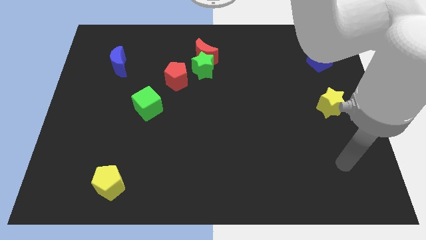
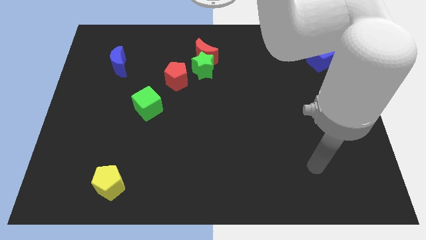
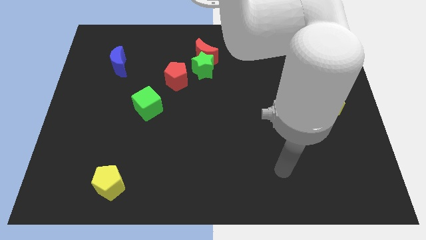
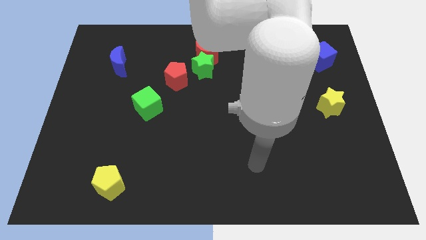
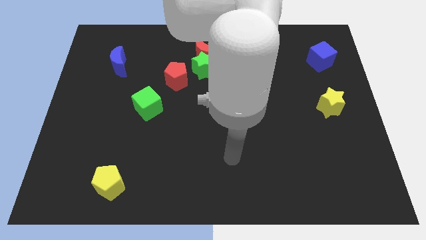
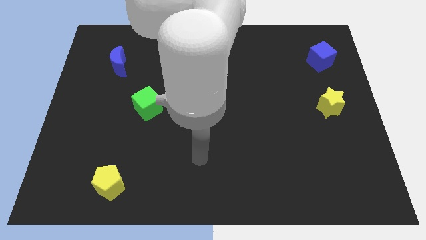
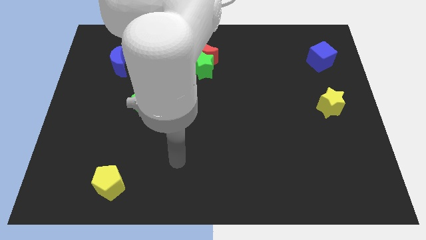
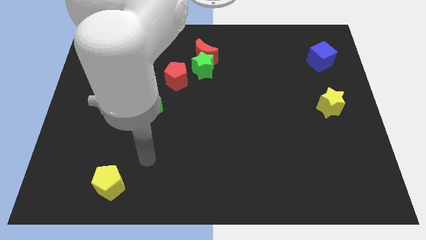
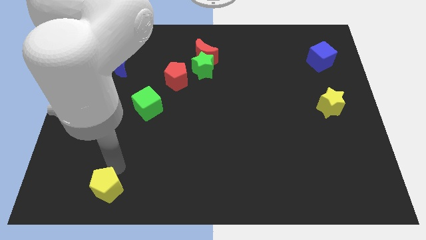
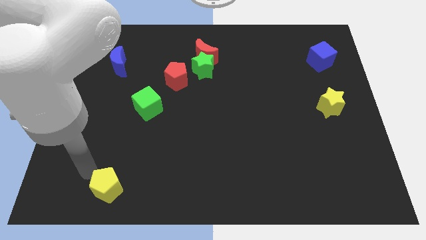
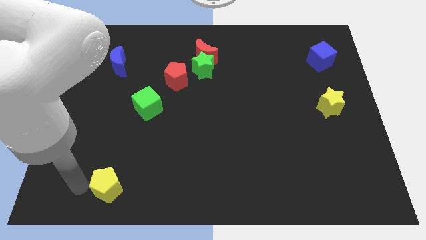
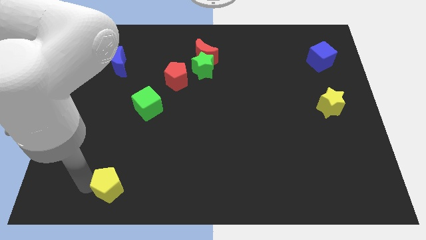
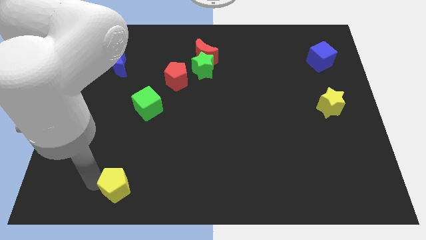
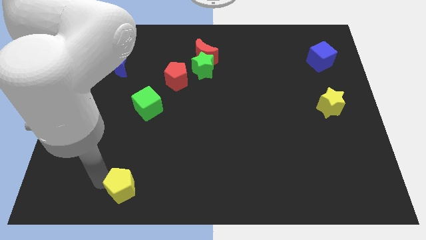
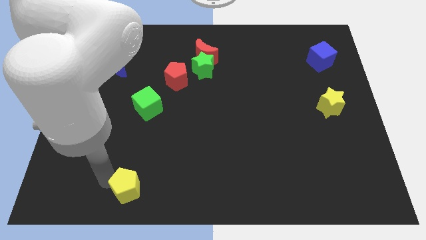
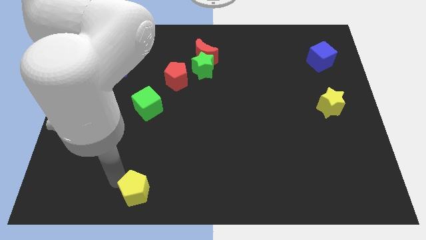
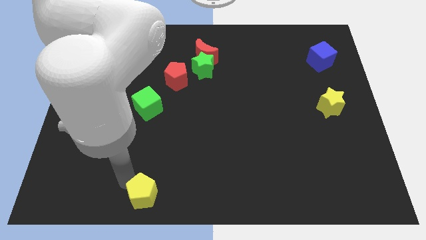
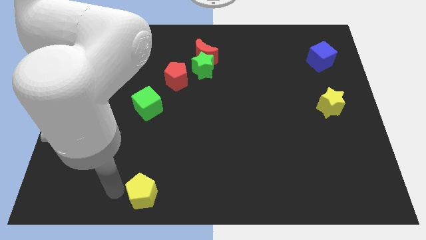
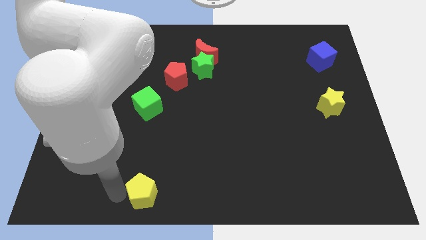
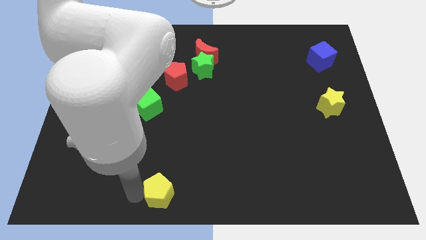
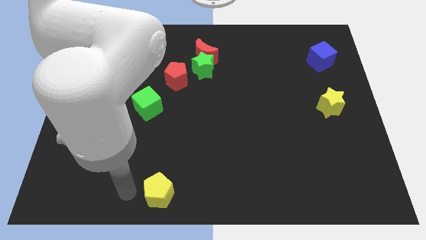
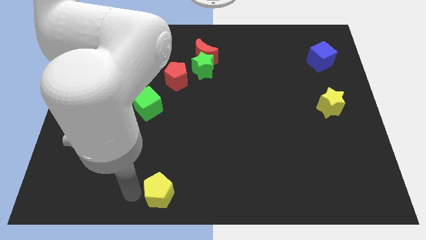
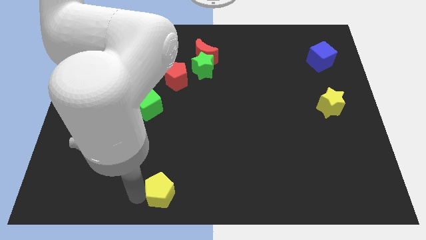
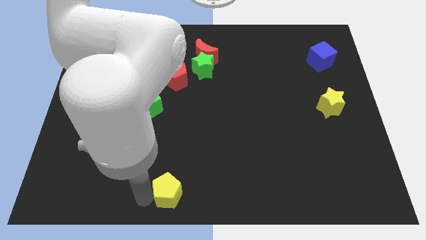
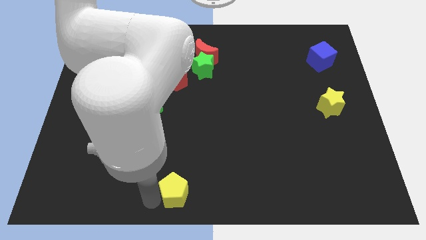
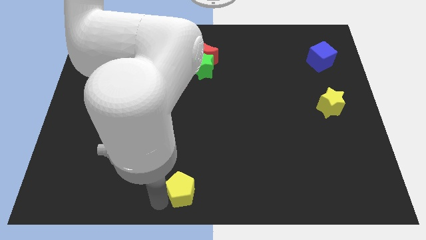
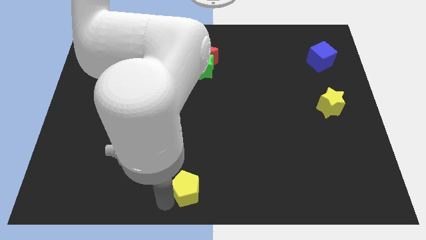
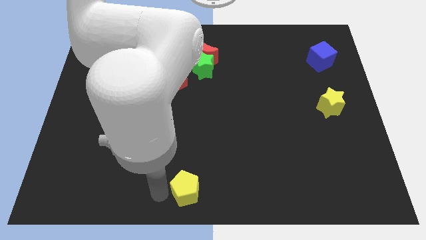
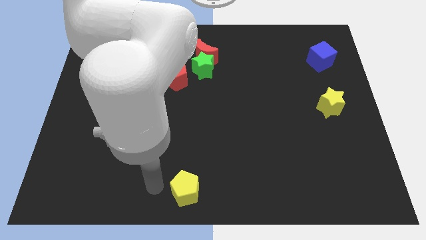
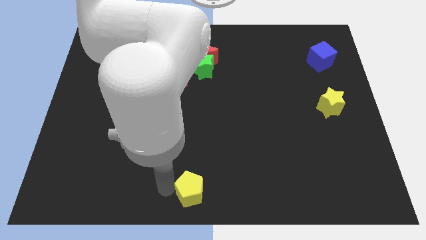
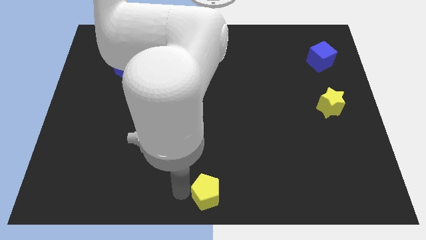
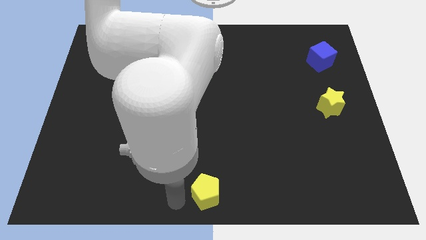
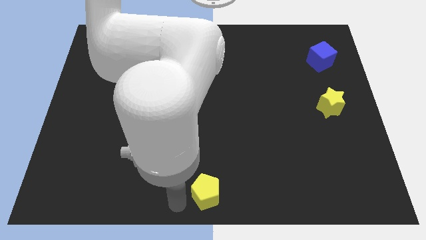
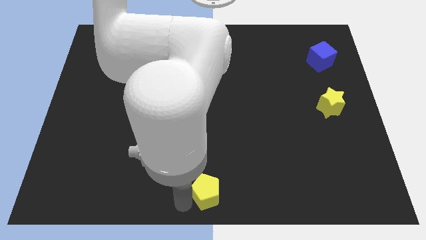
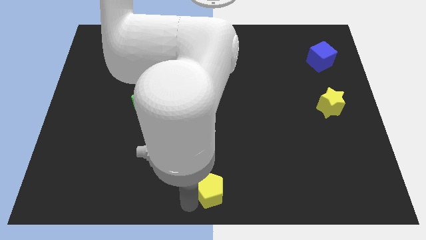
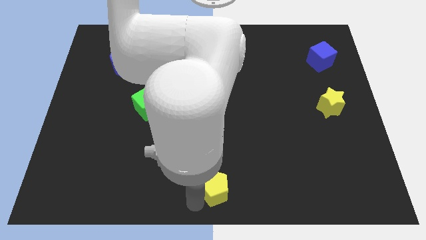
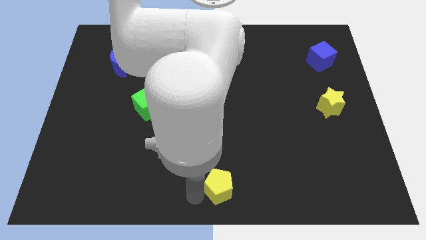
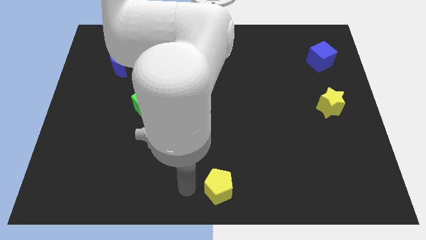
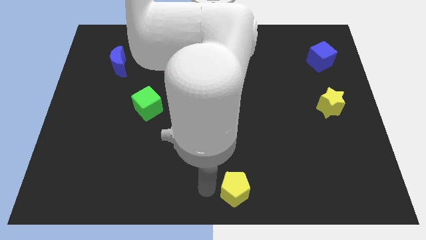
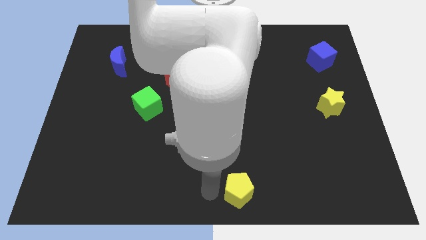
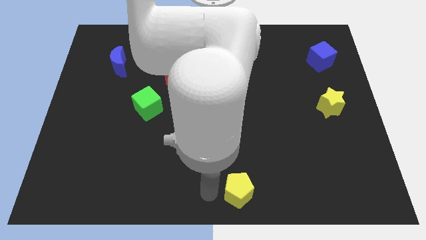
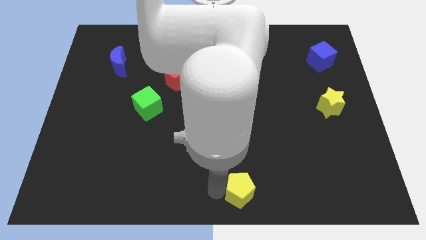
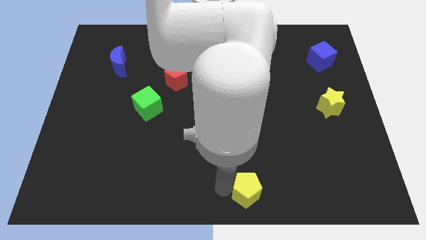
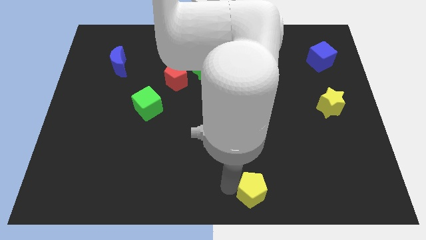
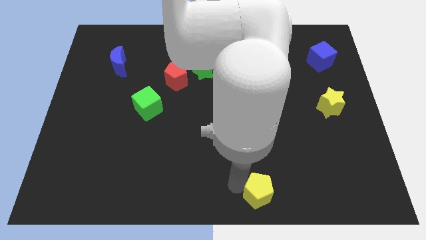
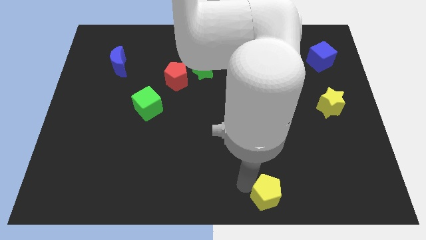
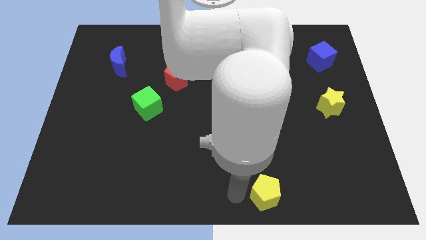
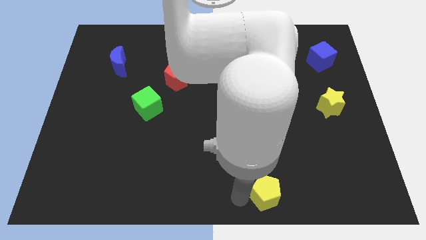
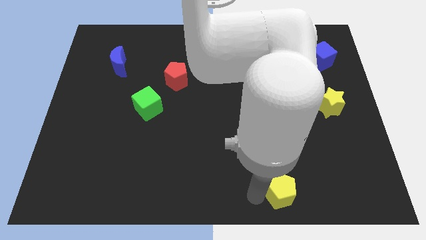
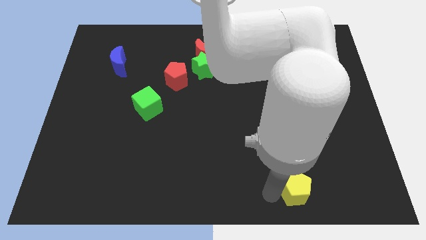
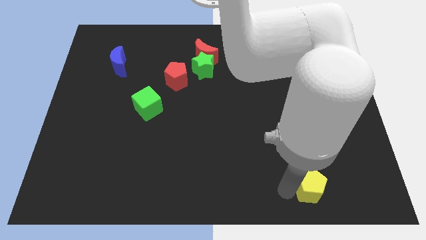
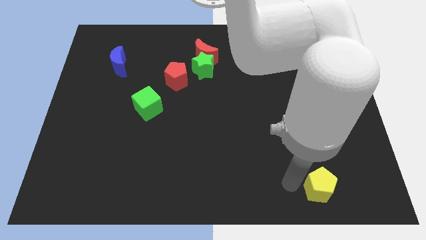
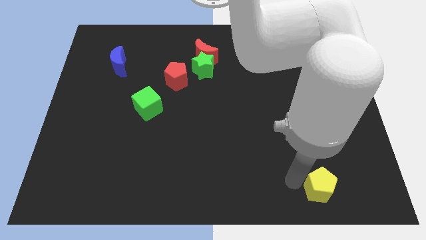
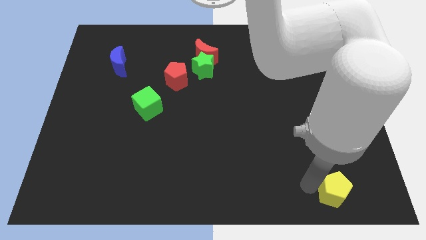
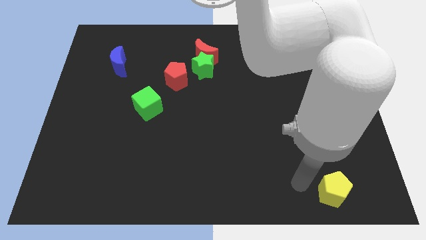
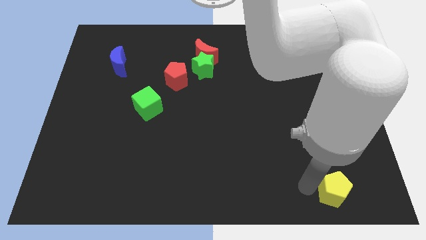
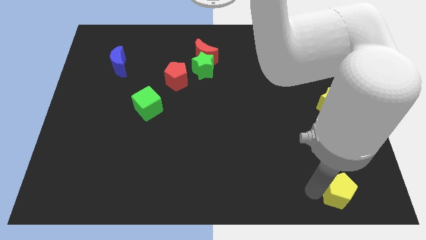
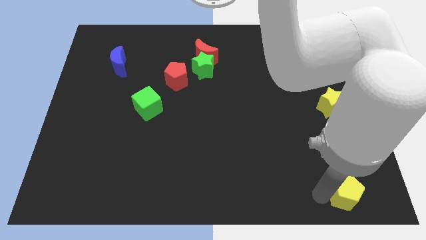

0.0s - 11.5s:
move the yellow pentagon to the bottom right

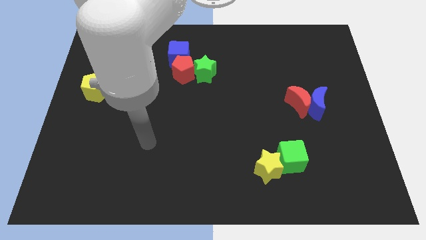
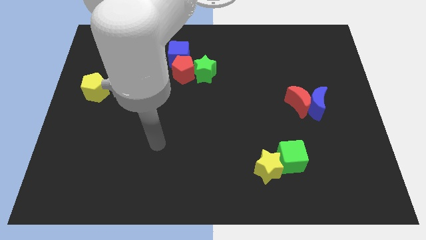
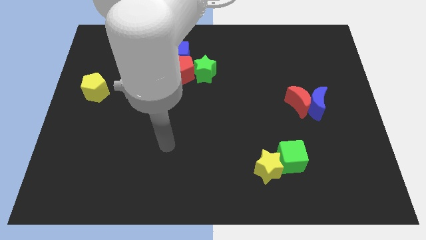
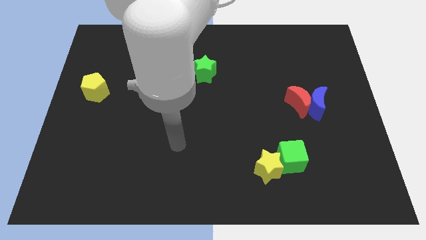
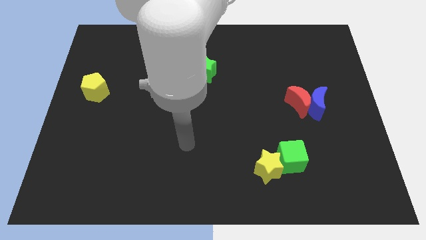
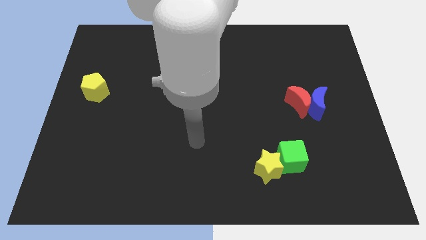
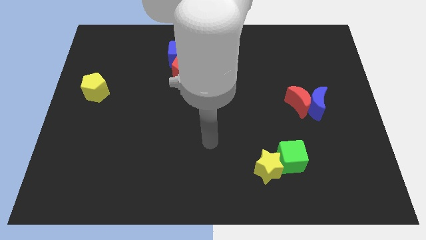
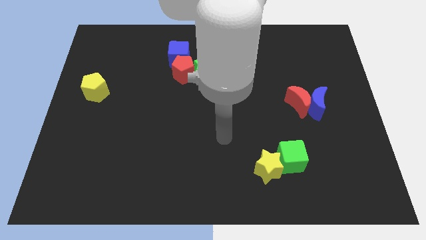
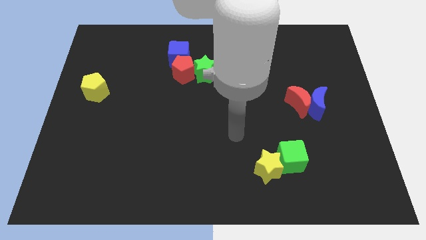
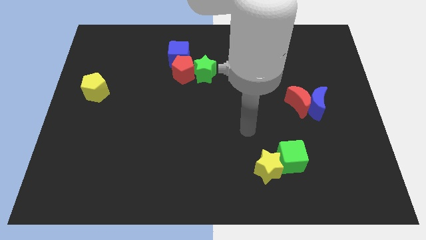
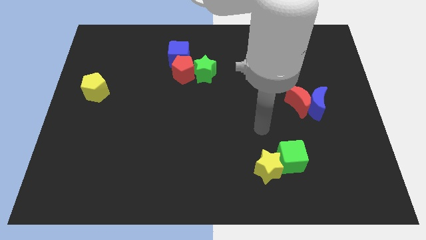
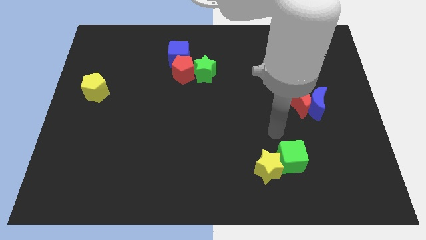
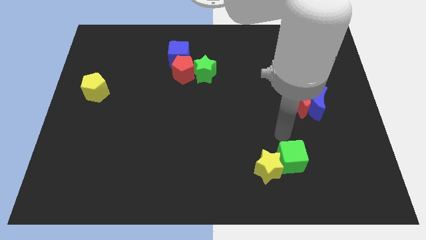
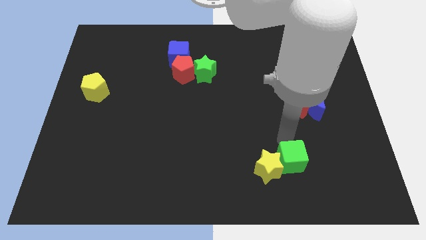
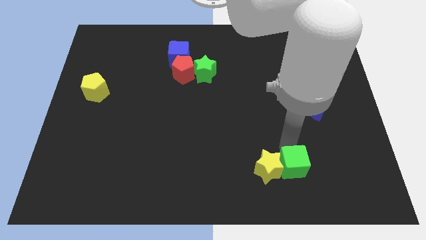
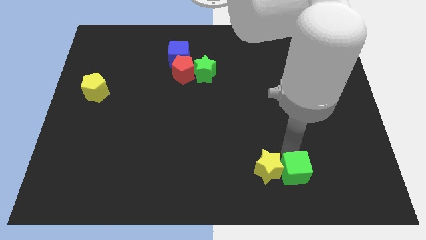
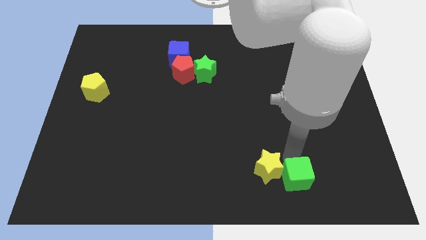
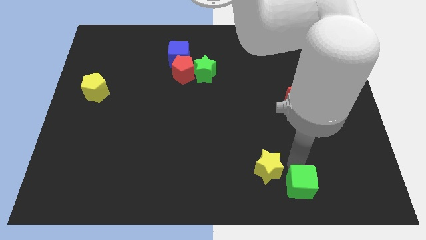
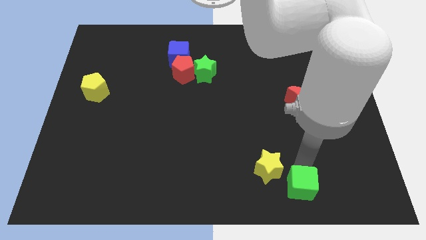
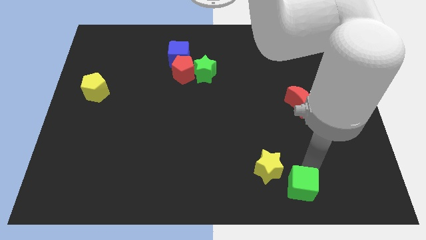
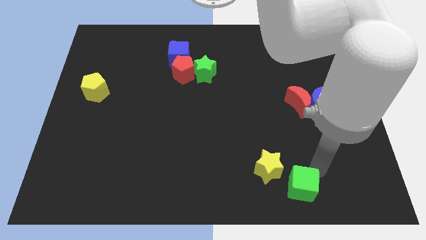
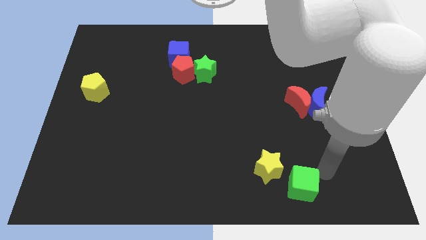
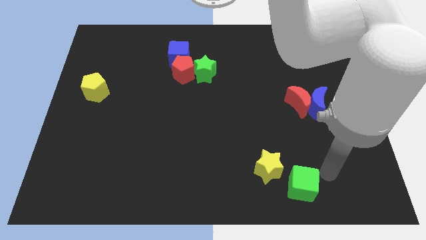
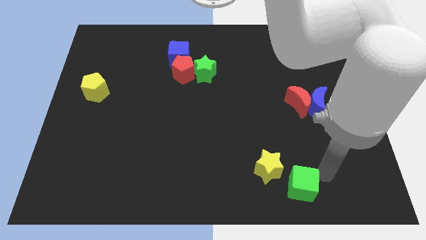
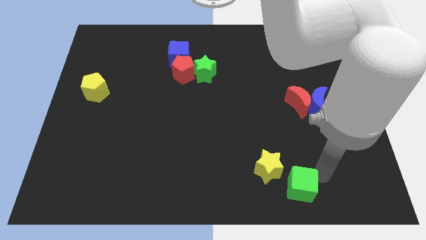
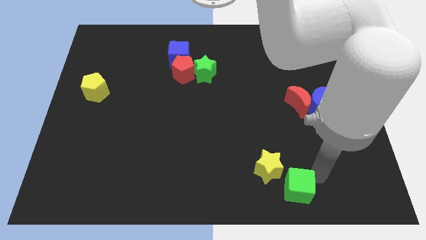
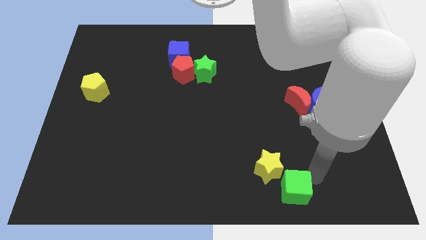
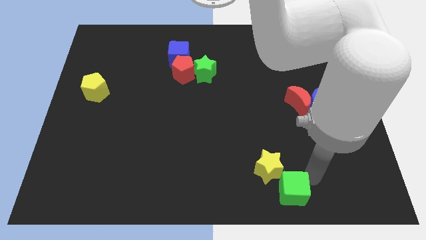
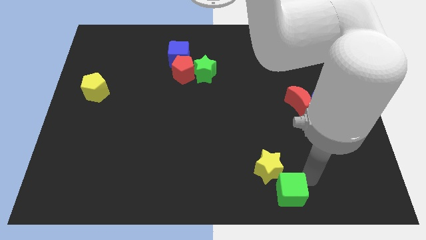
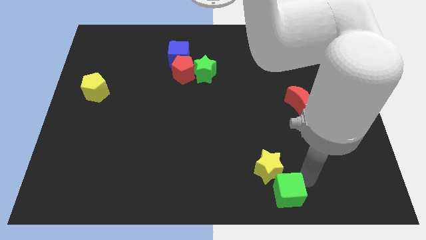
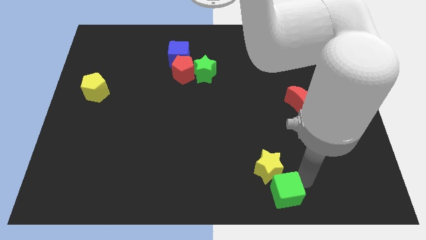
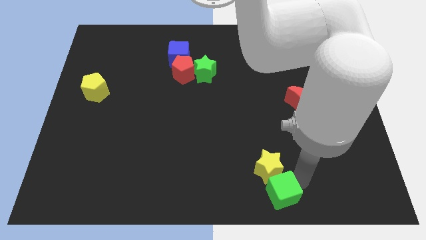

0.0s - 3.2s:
slide the green cube to the bottom side
